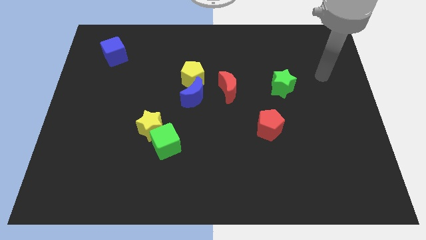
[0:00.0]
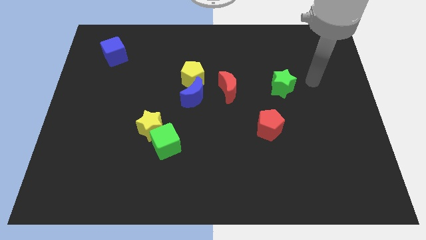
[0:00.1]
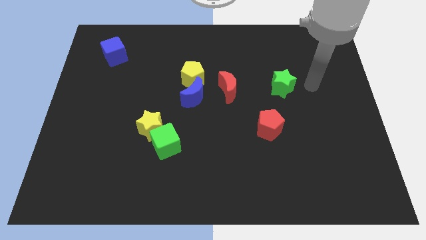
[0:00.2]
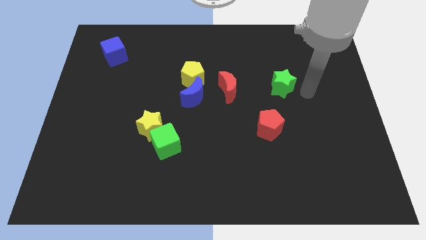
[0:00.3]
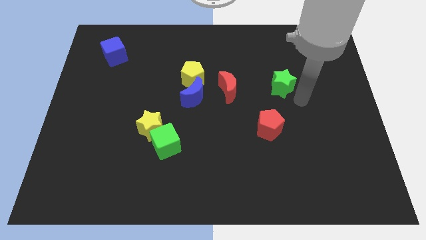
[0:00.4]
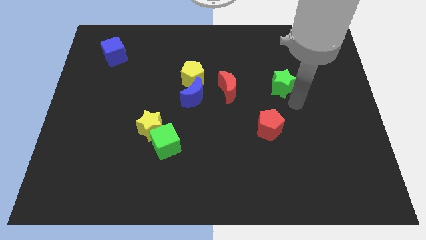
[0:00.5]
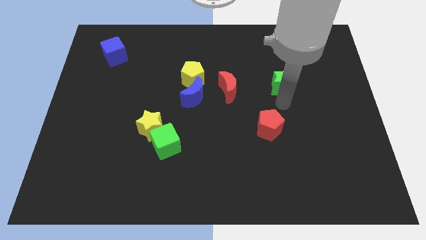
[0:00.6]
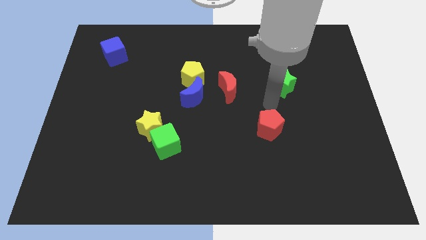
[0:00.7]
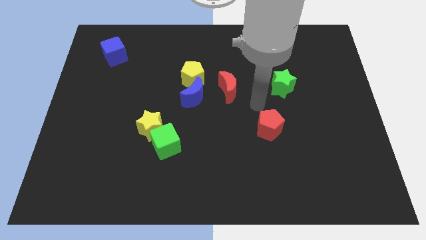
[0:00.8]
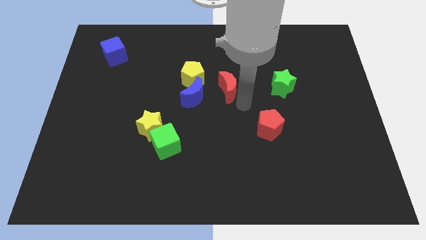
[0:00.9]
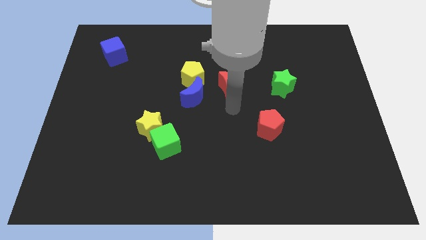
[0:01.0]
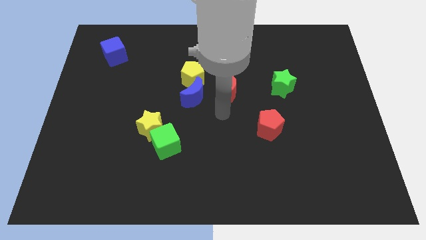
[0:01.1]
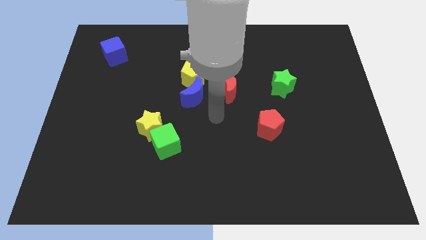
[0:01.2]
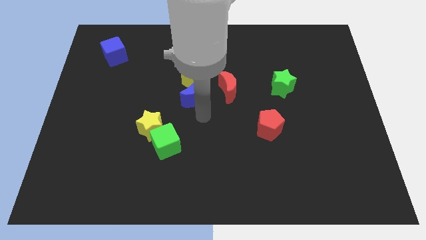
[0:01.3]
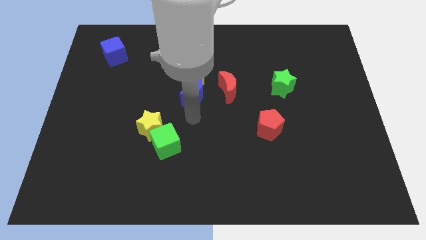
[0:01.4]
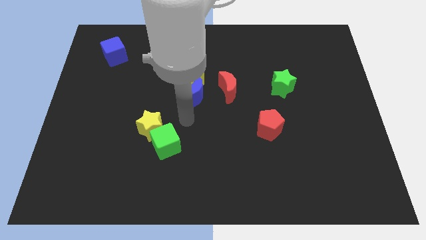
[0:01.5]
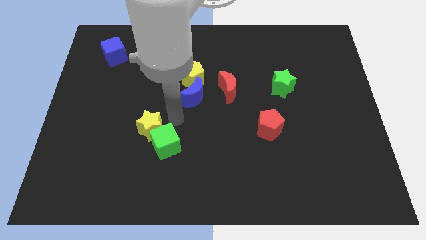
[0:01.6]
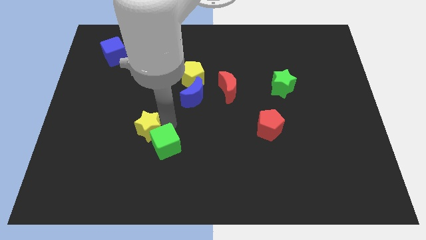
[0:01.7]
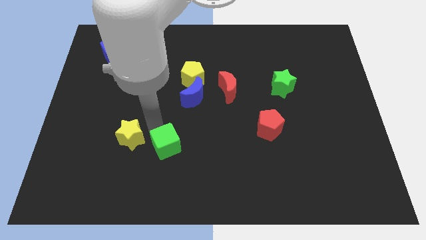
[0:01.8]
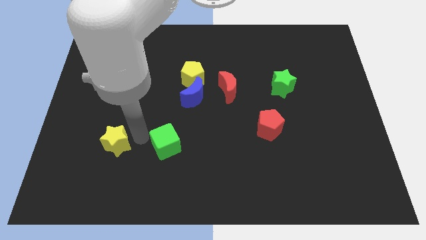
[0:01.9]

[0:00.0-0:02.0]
pull the green cube apart from the yellow star

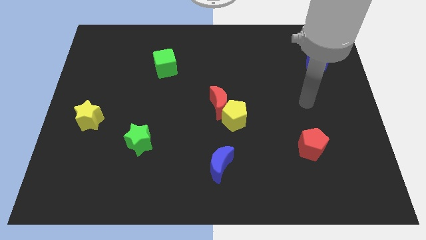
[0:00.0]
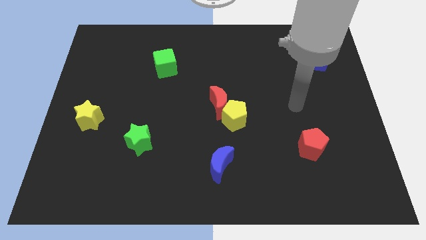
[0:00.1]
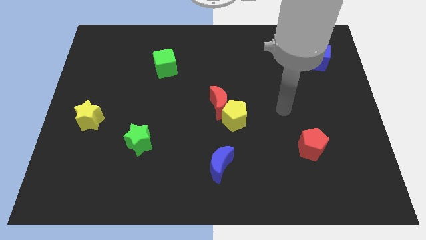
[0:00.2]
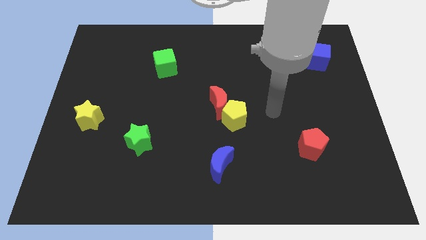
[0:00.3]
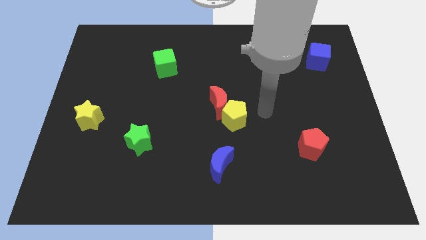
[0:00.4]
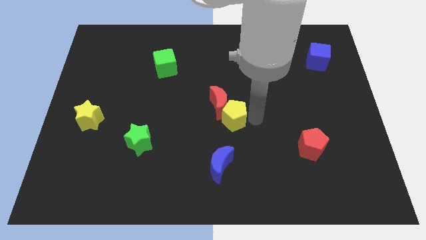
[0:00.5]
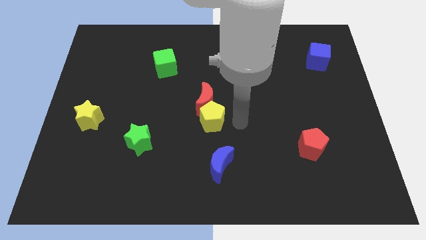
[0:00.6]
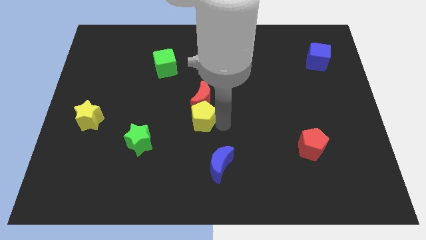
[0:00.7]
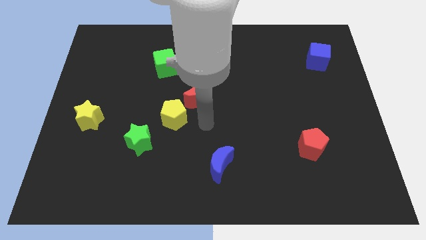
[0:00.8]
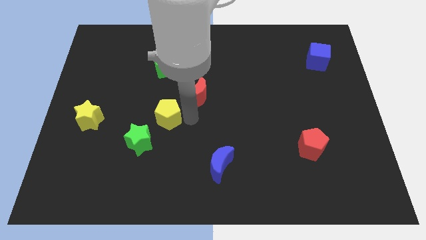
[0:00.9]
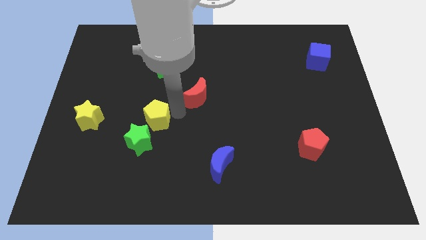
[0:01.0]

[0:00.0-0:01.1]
separate the red moon from the yellow pentagon

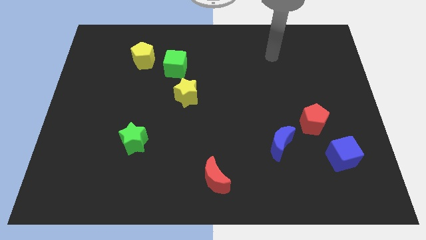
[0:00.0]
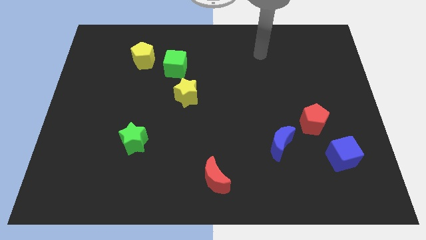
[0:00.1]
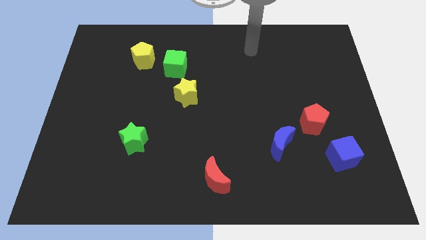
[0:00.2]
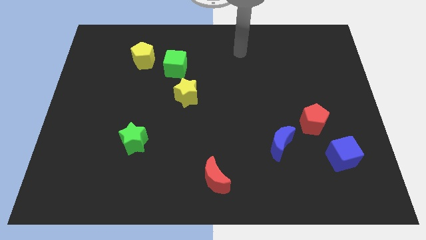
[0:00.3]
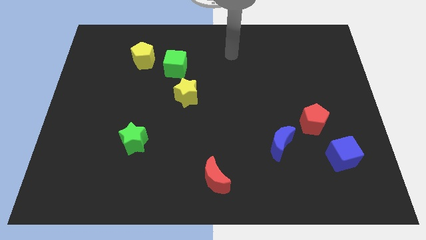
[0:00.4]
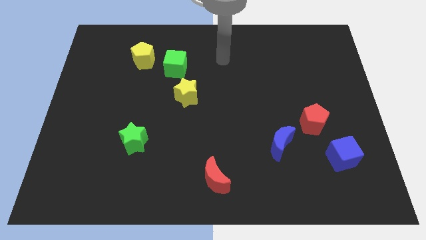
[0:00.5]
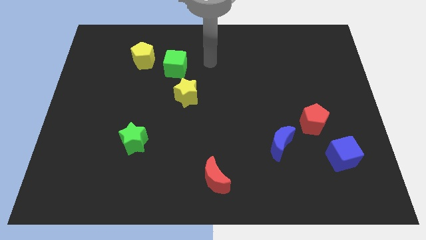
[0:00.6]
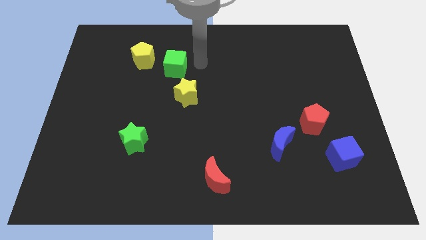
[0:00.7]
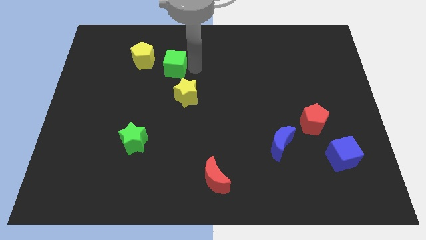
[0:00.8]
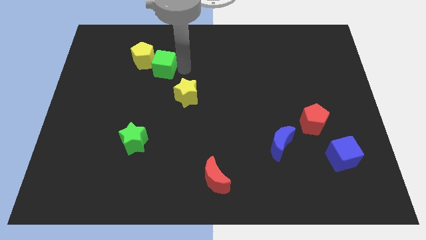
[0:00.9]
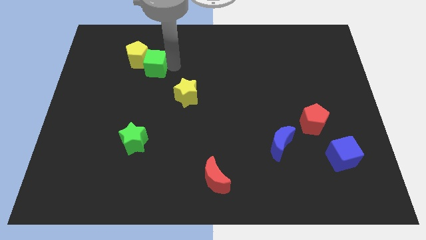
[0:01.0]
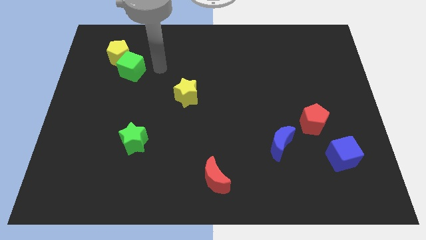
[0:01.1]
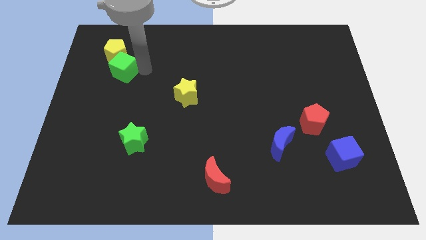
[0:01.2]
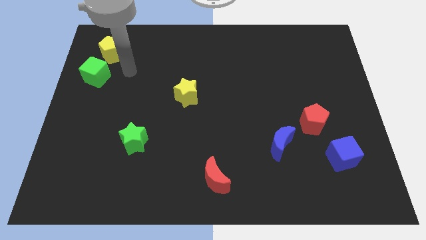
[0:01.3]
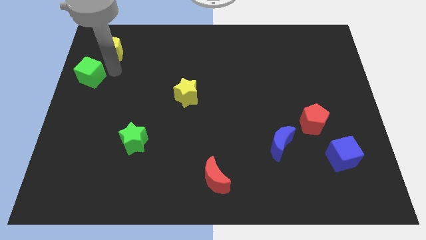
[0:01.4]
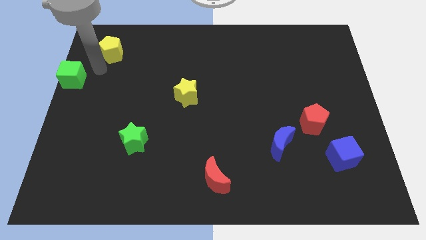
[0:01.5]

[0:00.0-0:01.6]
move the yellow pentagon away from the green cube

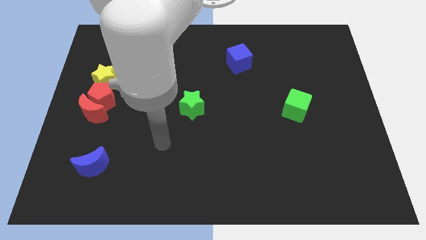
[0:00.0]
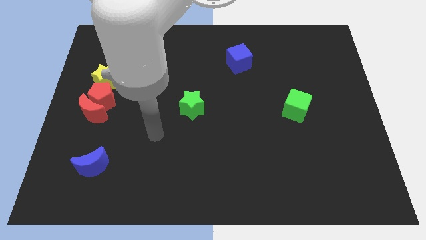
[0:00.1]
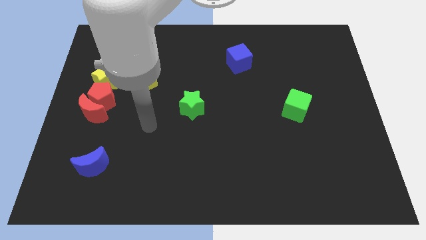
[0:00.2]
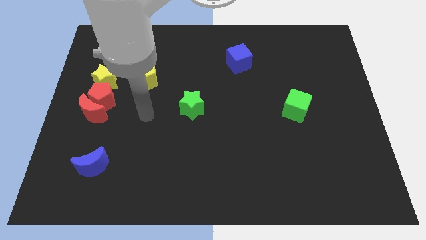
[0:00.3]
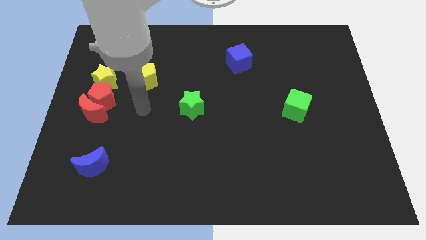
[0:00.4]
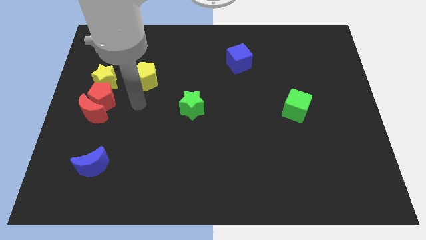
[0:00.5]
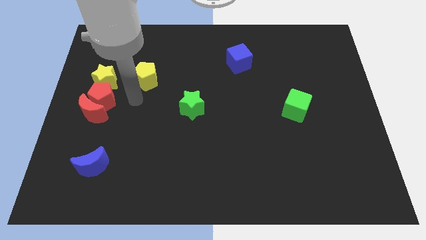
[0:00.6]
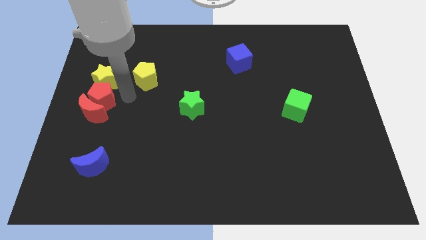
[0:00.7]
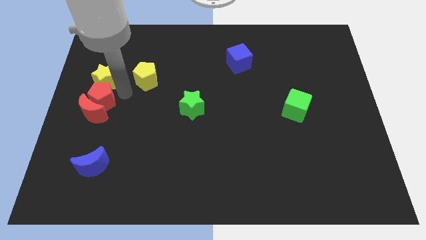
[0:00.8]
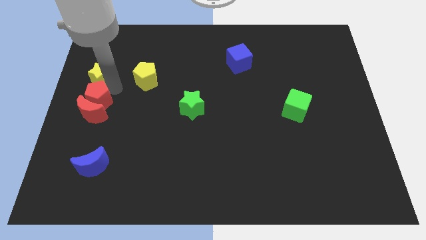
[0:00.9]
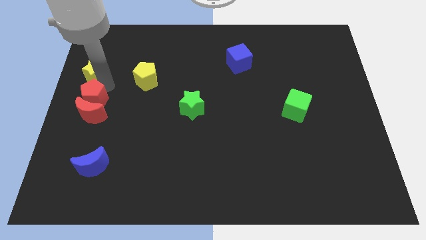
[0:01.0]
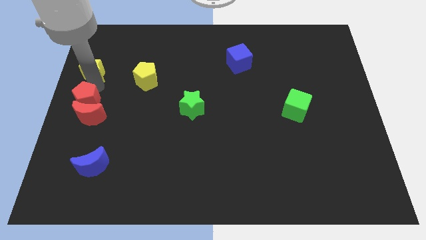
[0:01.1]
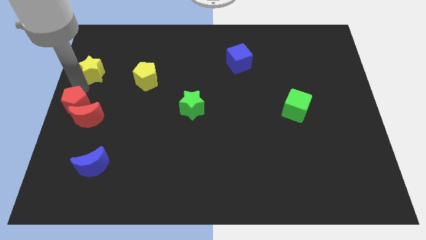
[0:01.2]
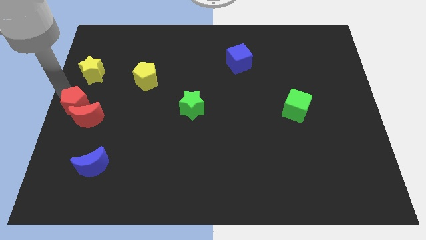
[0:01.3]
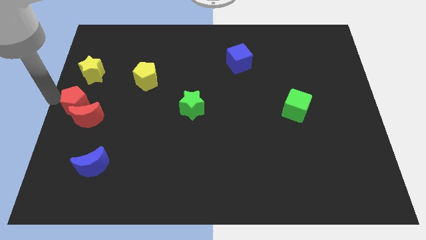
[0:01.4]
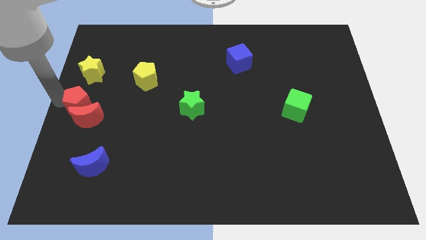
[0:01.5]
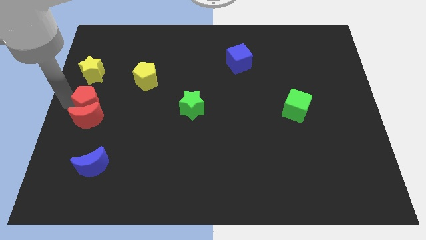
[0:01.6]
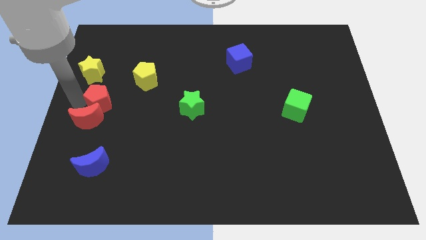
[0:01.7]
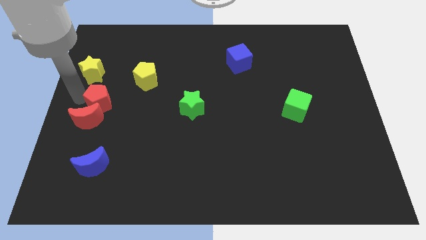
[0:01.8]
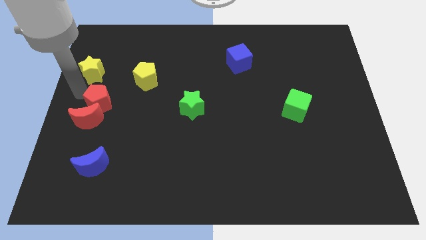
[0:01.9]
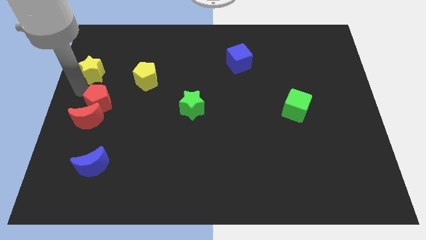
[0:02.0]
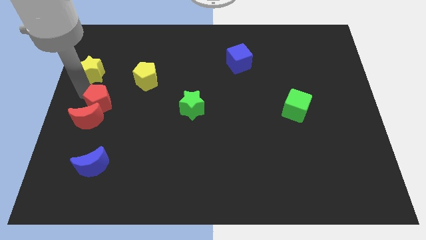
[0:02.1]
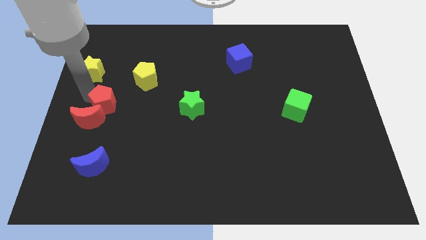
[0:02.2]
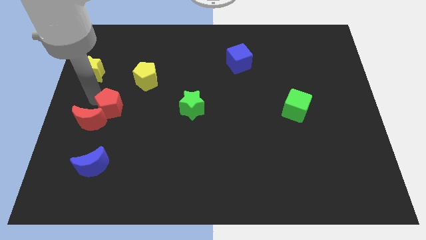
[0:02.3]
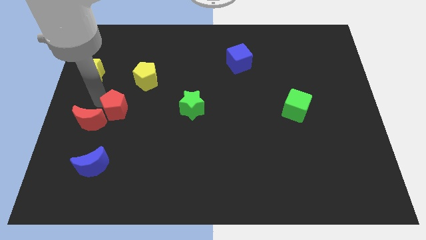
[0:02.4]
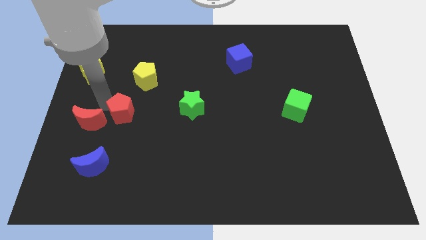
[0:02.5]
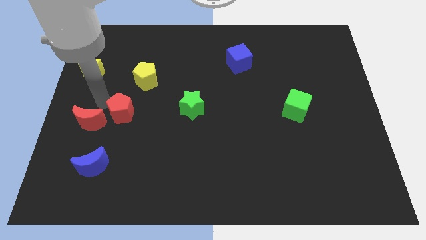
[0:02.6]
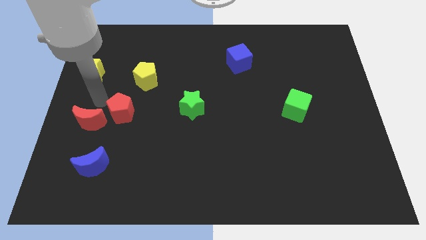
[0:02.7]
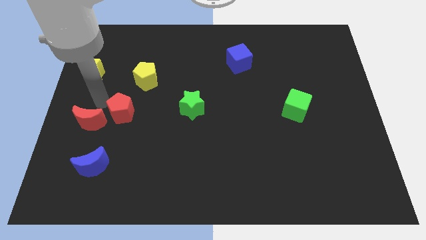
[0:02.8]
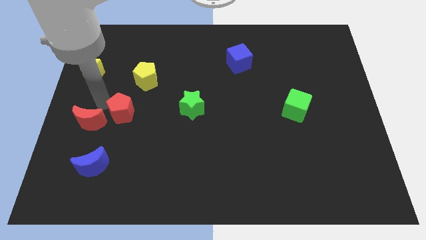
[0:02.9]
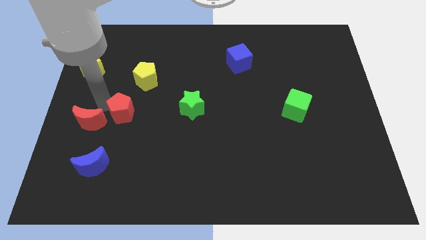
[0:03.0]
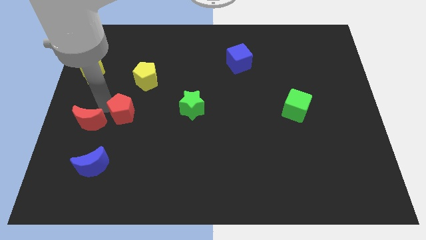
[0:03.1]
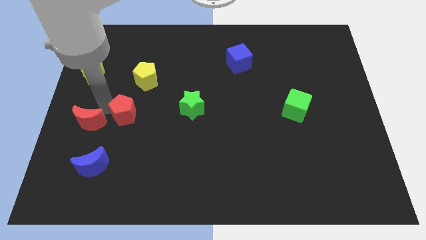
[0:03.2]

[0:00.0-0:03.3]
separate the red pentagon from the red moon and yellow star

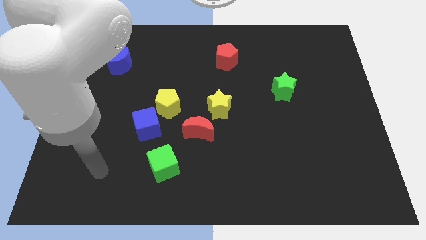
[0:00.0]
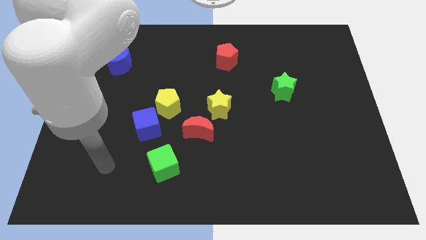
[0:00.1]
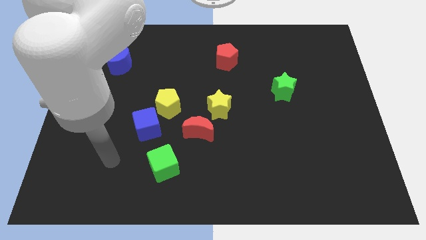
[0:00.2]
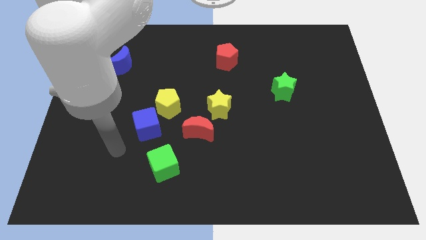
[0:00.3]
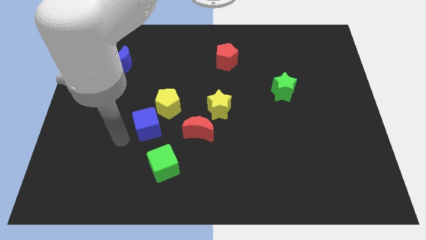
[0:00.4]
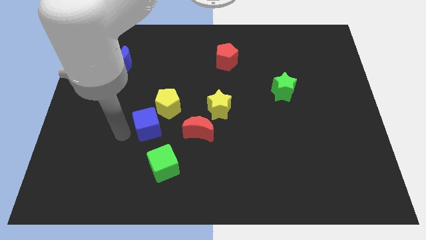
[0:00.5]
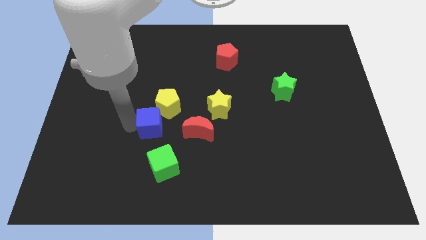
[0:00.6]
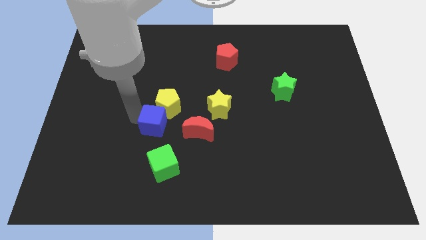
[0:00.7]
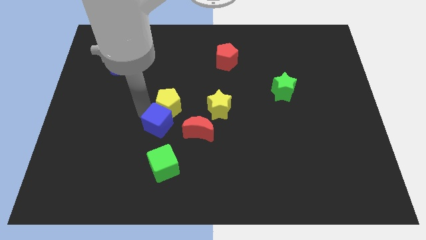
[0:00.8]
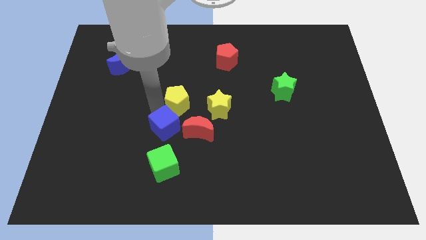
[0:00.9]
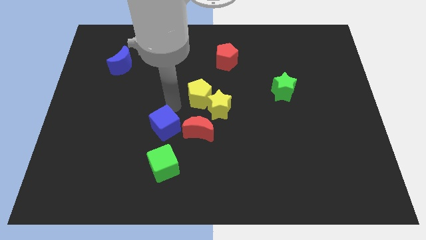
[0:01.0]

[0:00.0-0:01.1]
pull the blue cube apart from the yellow pentagon

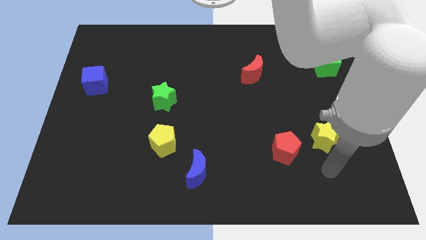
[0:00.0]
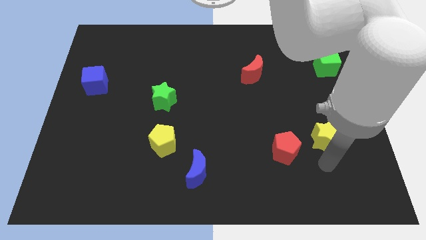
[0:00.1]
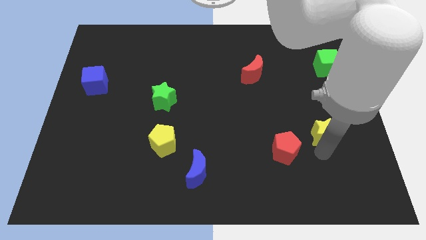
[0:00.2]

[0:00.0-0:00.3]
separate the red pentagon from the yellow star

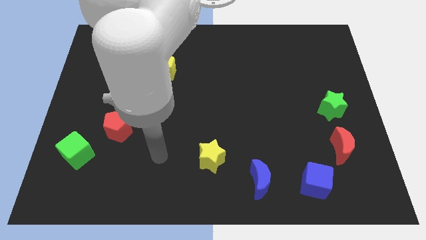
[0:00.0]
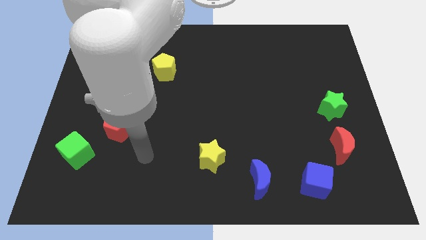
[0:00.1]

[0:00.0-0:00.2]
move the red pentagon away from the green cube
